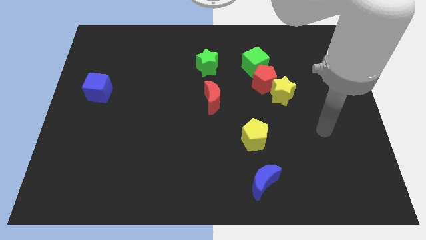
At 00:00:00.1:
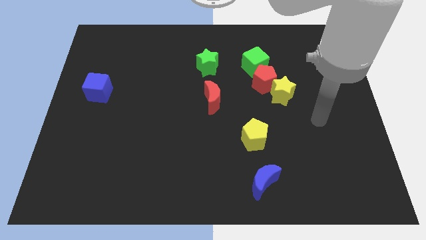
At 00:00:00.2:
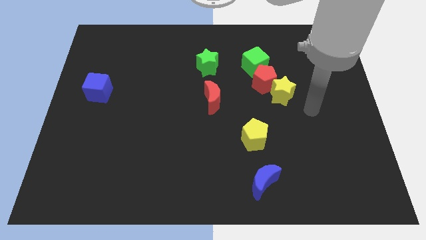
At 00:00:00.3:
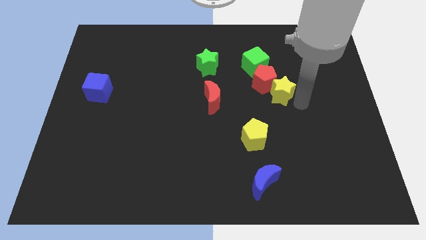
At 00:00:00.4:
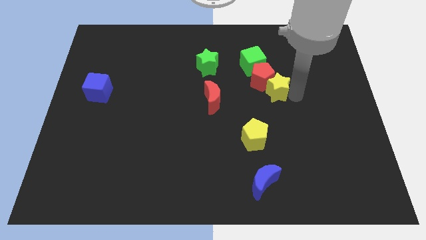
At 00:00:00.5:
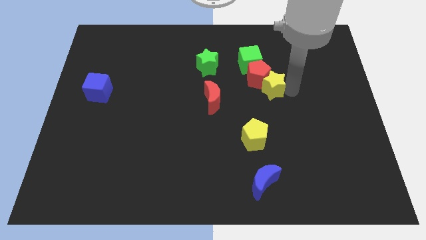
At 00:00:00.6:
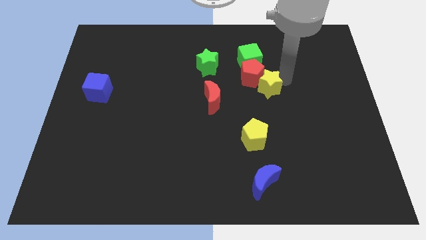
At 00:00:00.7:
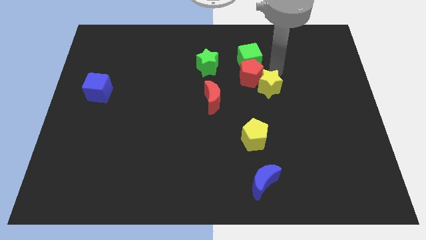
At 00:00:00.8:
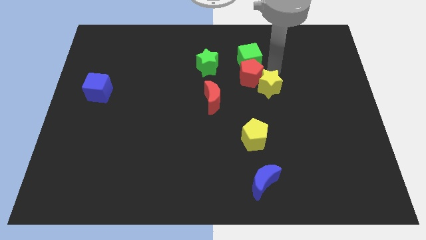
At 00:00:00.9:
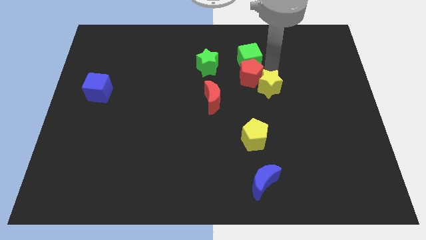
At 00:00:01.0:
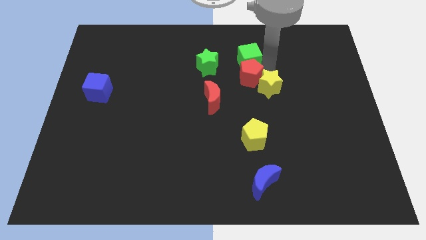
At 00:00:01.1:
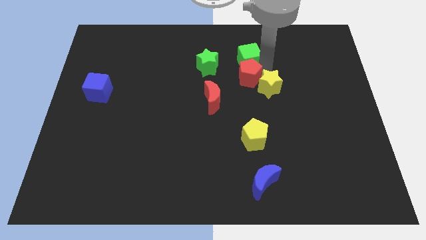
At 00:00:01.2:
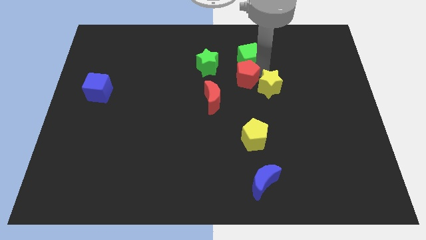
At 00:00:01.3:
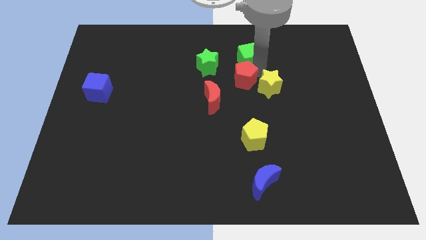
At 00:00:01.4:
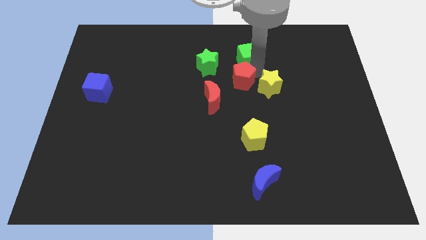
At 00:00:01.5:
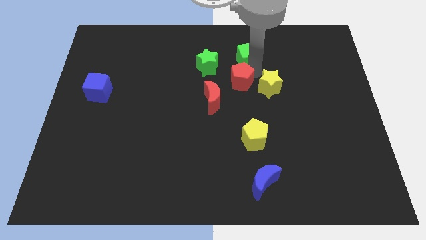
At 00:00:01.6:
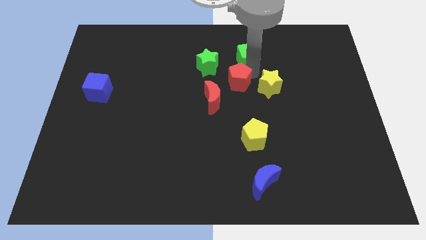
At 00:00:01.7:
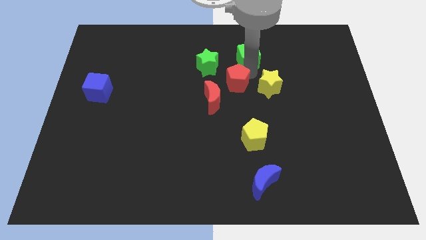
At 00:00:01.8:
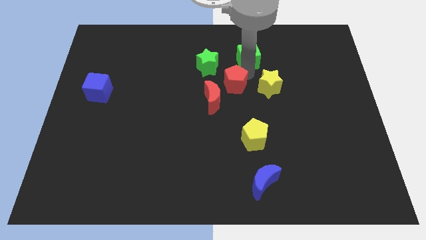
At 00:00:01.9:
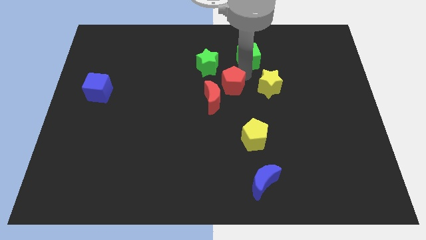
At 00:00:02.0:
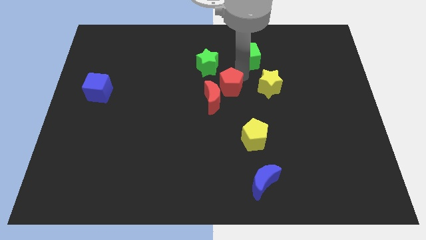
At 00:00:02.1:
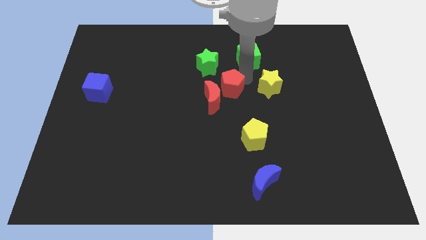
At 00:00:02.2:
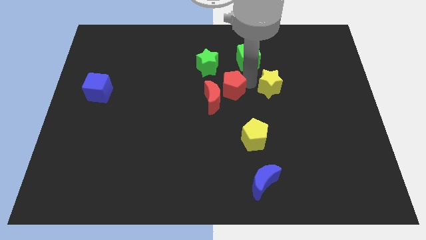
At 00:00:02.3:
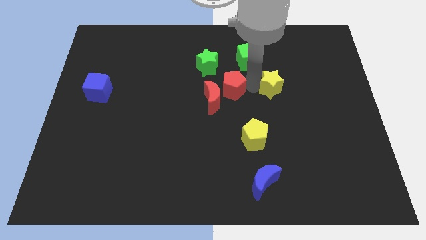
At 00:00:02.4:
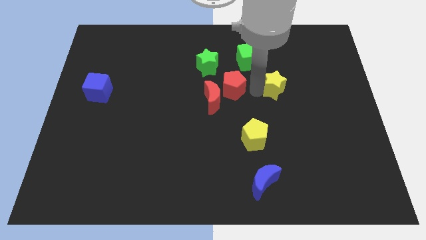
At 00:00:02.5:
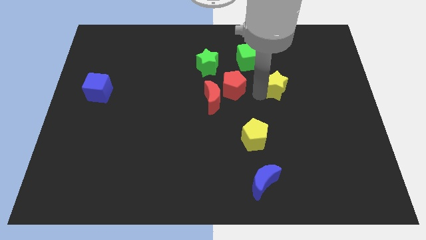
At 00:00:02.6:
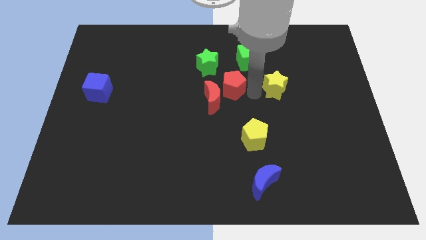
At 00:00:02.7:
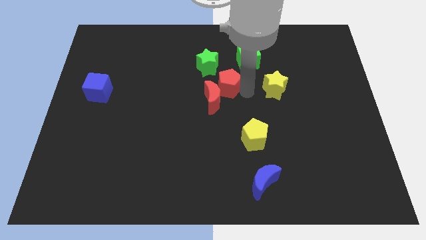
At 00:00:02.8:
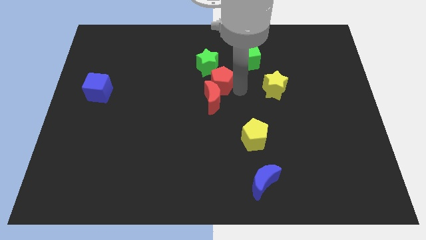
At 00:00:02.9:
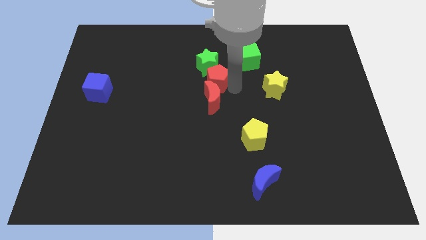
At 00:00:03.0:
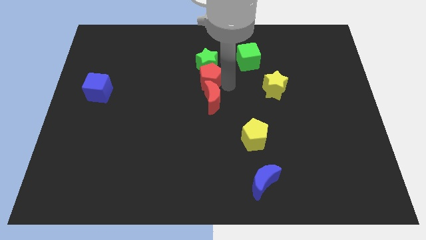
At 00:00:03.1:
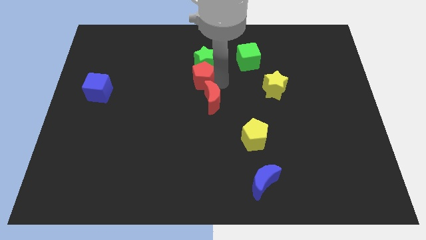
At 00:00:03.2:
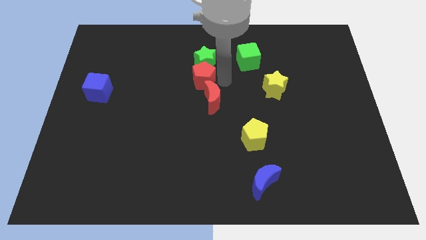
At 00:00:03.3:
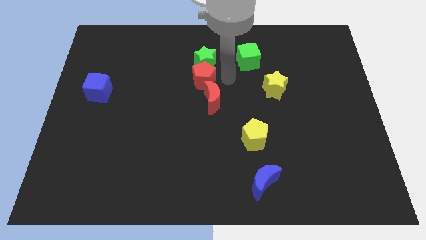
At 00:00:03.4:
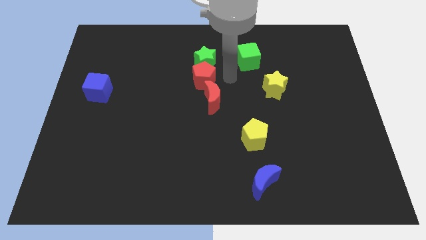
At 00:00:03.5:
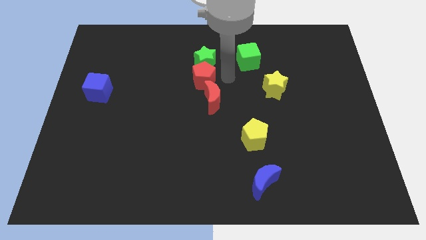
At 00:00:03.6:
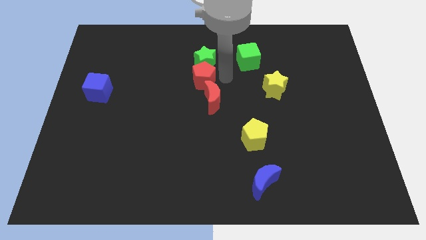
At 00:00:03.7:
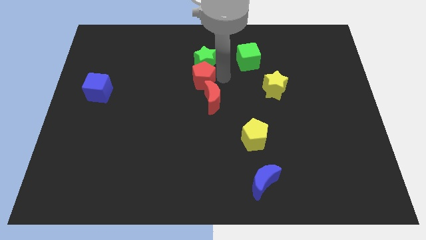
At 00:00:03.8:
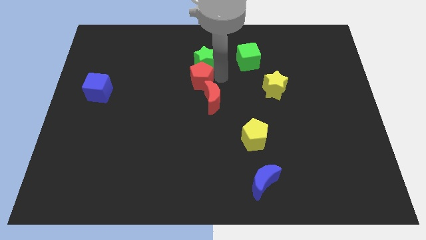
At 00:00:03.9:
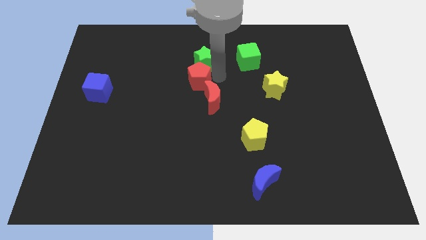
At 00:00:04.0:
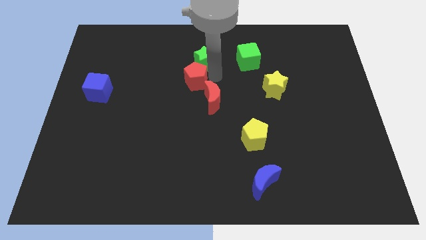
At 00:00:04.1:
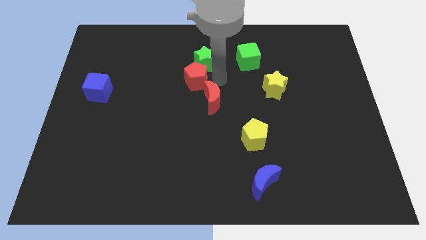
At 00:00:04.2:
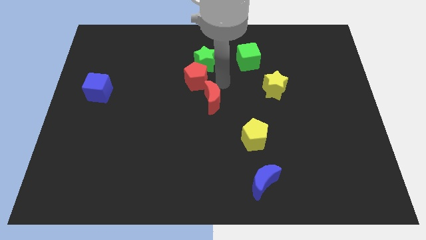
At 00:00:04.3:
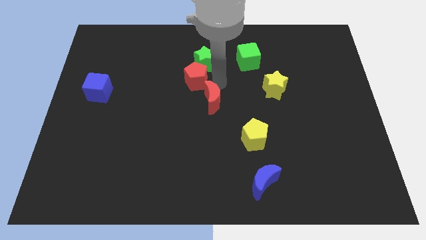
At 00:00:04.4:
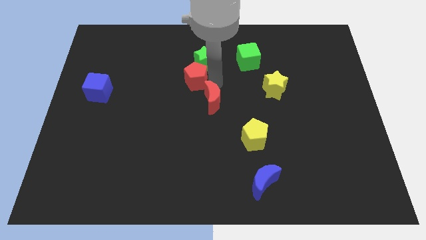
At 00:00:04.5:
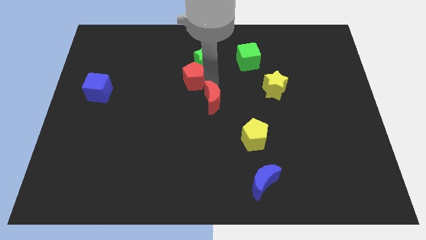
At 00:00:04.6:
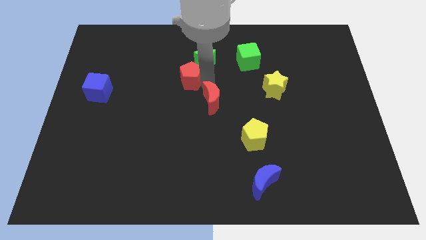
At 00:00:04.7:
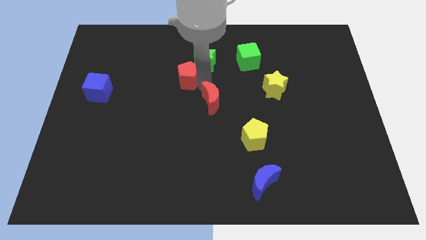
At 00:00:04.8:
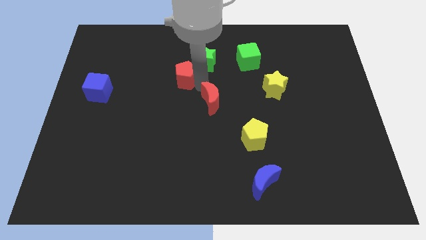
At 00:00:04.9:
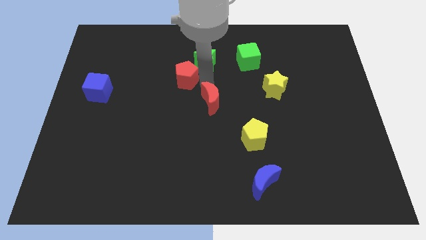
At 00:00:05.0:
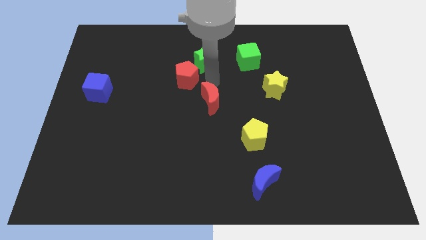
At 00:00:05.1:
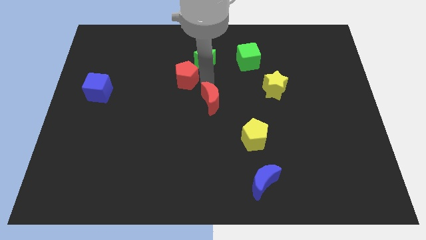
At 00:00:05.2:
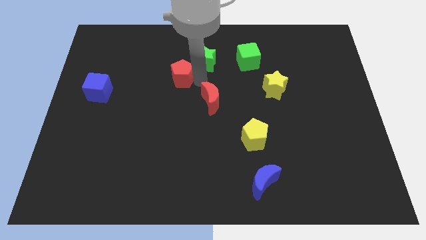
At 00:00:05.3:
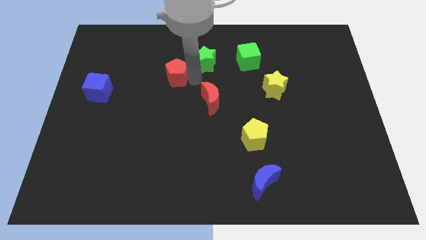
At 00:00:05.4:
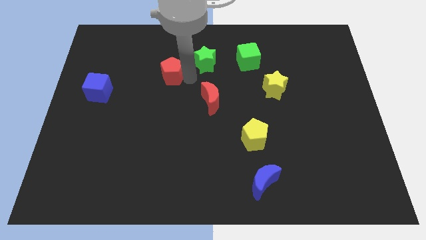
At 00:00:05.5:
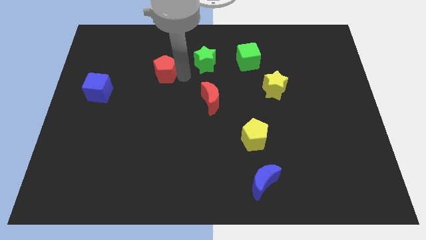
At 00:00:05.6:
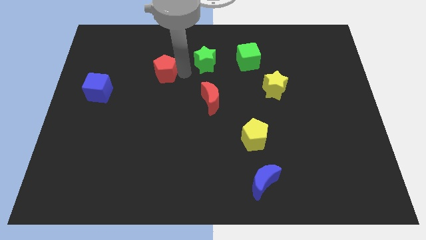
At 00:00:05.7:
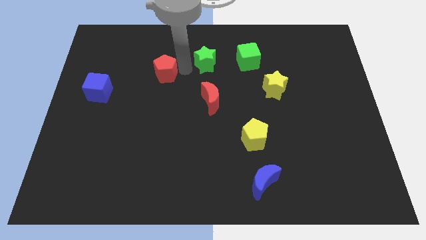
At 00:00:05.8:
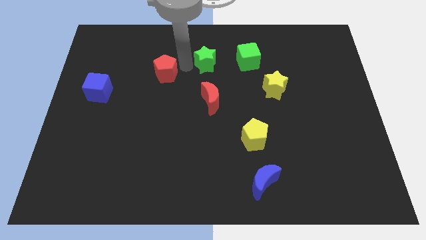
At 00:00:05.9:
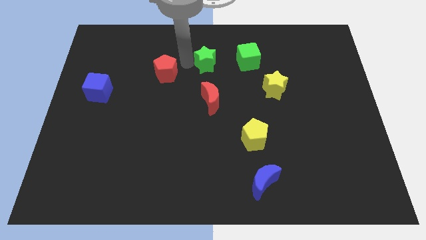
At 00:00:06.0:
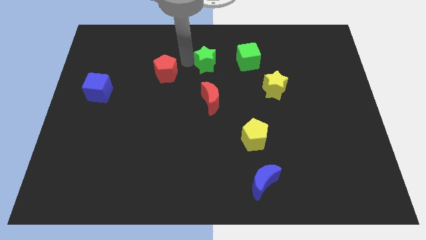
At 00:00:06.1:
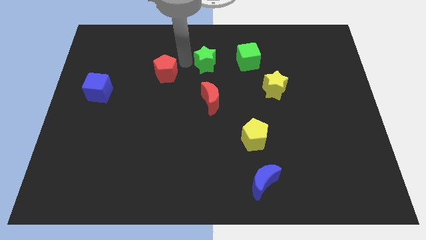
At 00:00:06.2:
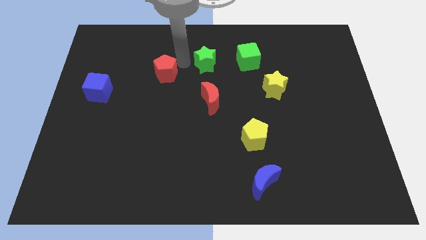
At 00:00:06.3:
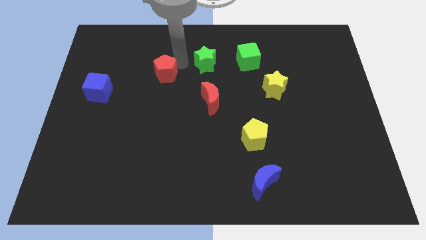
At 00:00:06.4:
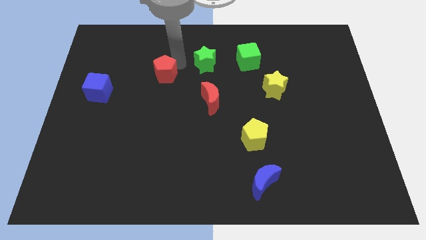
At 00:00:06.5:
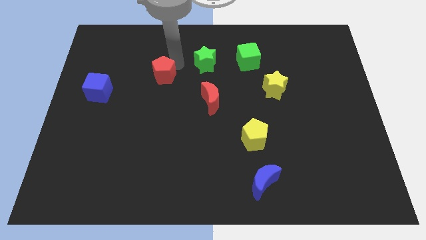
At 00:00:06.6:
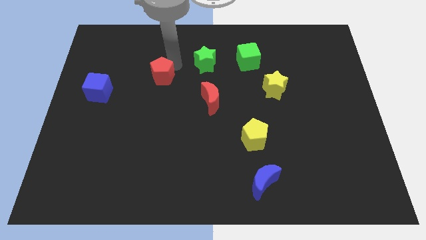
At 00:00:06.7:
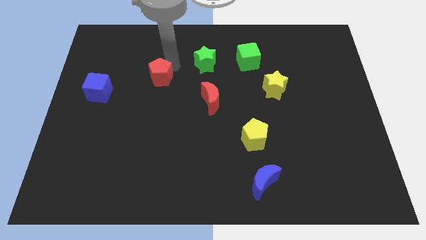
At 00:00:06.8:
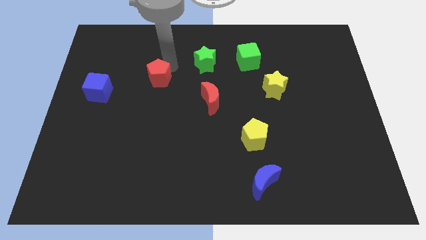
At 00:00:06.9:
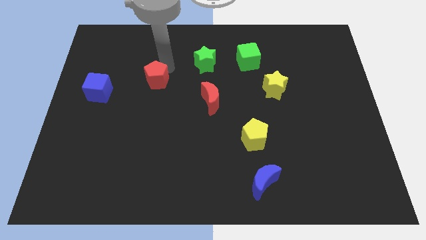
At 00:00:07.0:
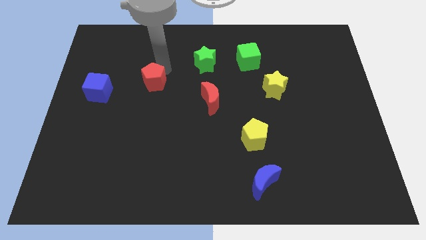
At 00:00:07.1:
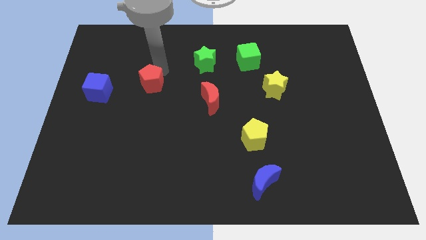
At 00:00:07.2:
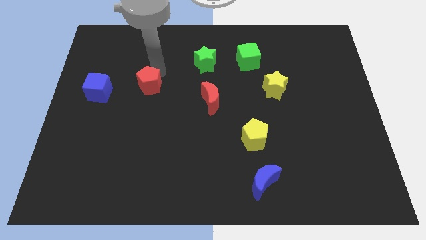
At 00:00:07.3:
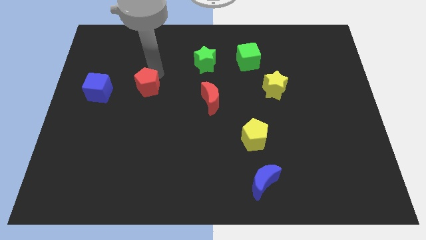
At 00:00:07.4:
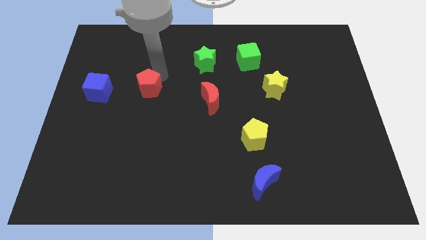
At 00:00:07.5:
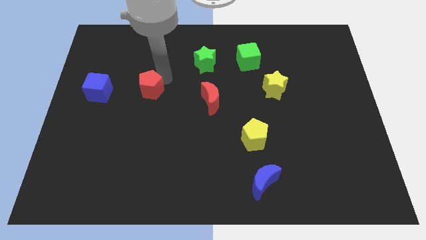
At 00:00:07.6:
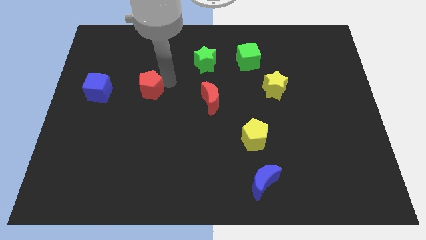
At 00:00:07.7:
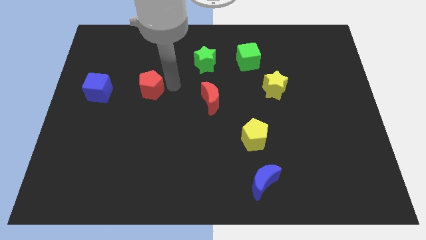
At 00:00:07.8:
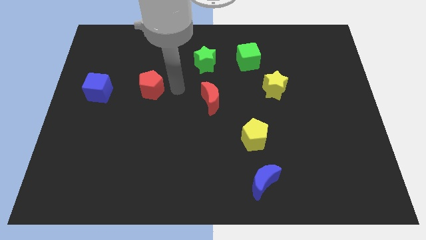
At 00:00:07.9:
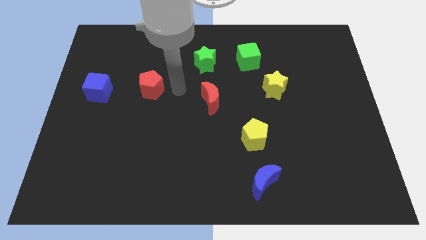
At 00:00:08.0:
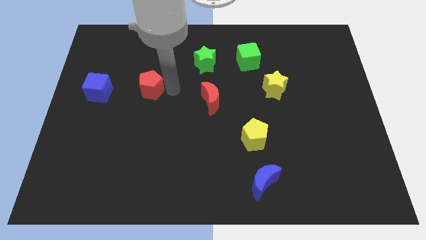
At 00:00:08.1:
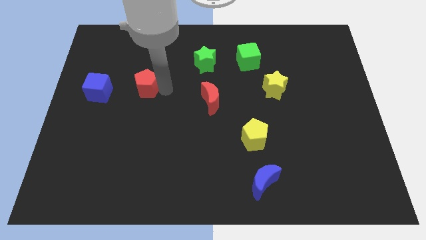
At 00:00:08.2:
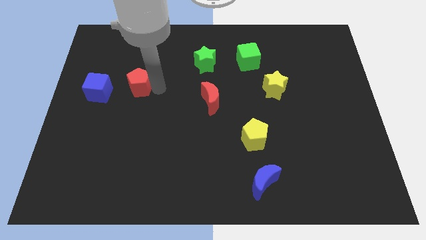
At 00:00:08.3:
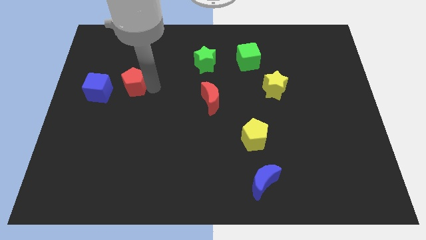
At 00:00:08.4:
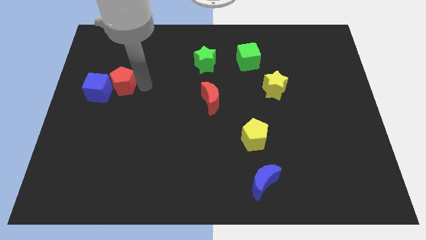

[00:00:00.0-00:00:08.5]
move the red pentagon close to the blue cube
